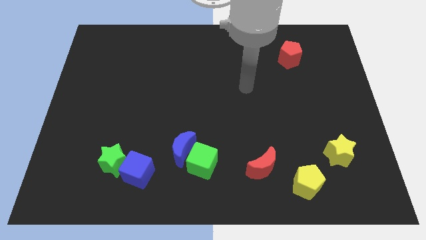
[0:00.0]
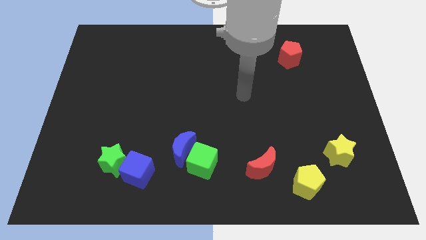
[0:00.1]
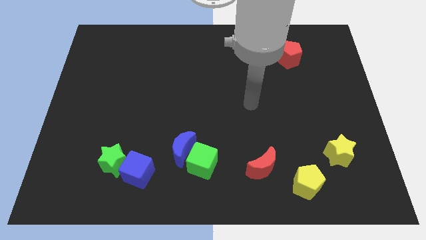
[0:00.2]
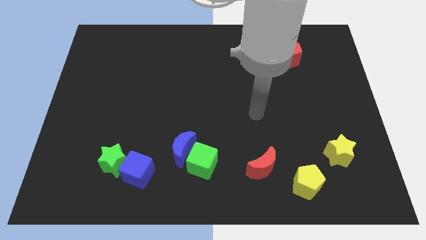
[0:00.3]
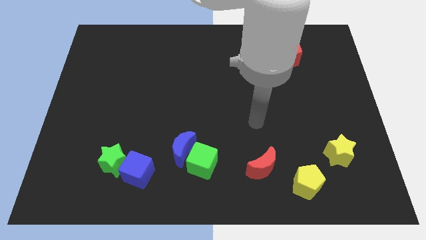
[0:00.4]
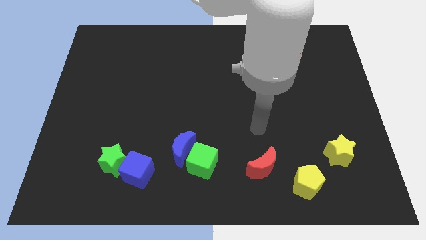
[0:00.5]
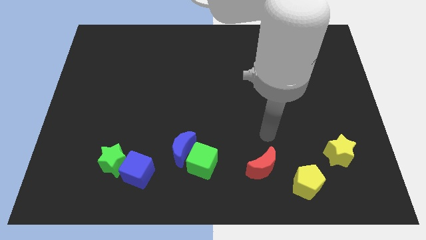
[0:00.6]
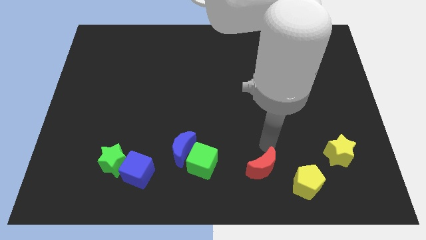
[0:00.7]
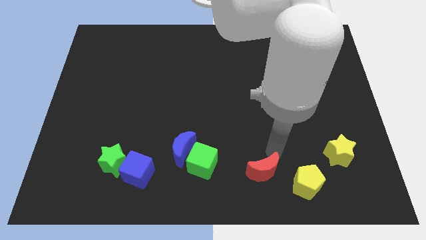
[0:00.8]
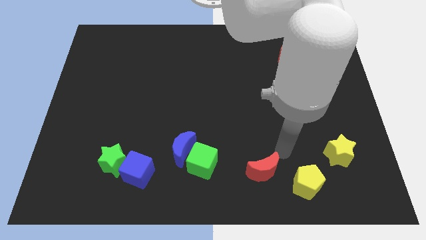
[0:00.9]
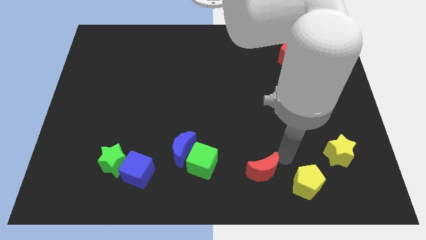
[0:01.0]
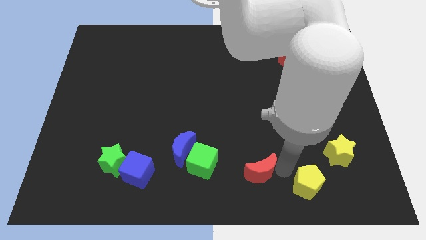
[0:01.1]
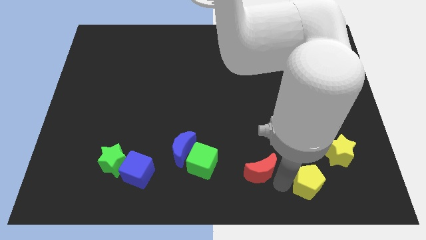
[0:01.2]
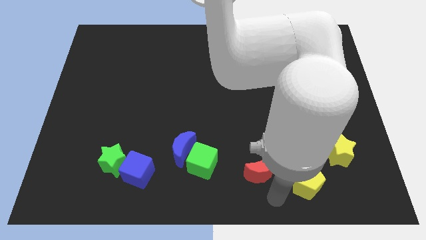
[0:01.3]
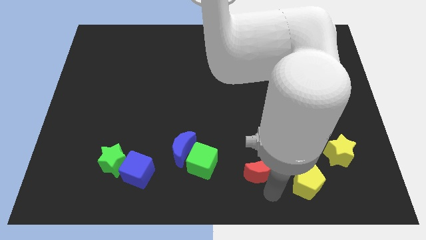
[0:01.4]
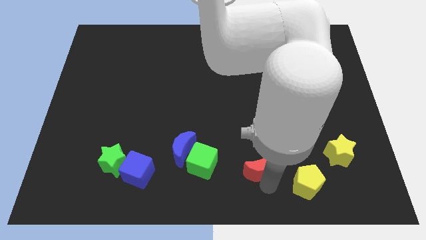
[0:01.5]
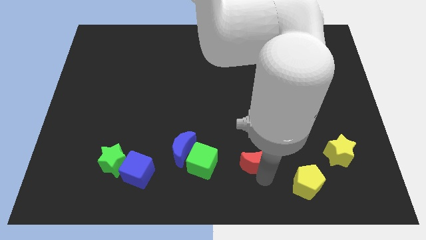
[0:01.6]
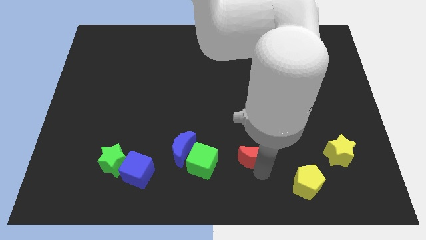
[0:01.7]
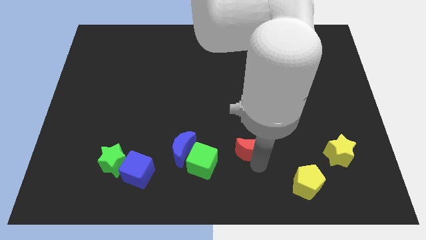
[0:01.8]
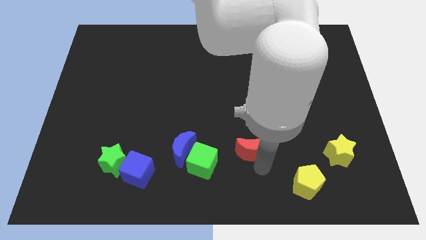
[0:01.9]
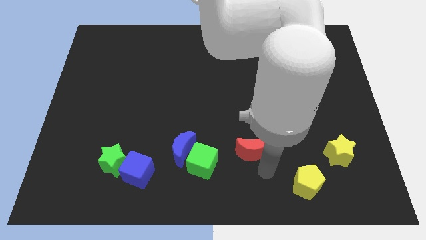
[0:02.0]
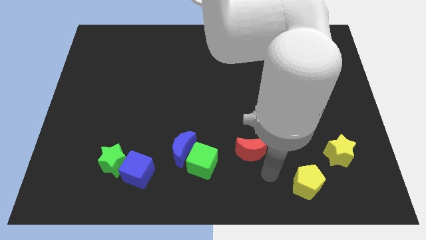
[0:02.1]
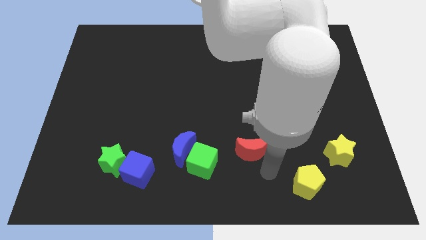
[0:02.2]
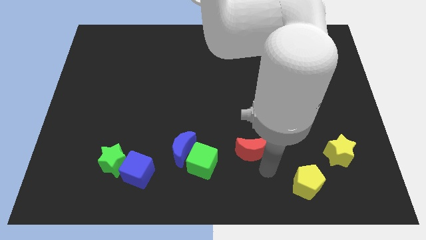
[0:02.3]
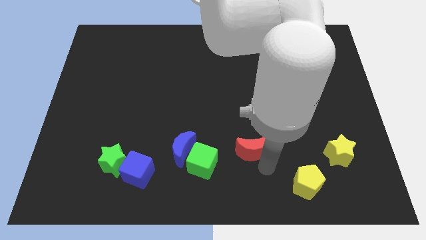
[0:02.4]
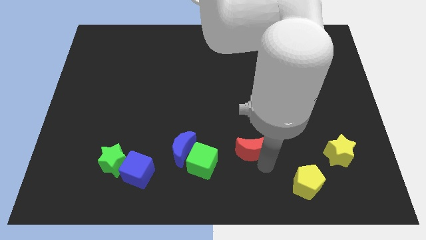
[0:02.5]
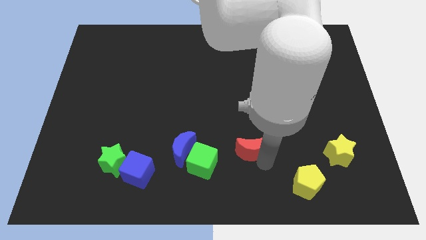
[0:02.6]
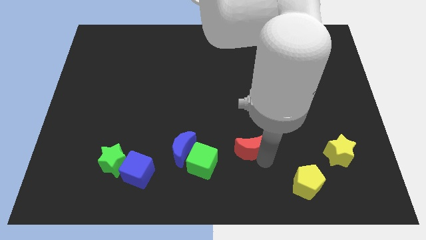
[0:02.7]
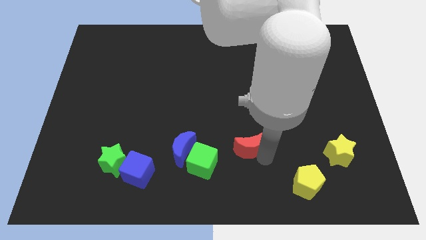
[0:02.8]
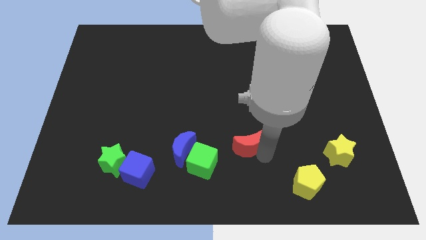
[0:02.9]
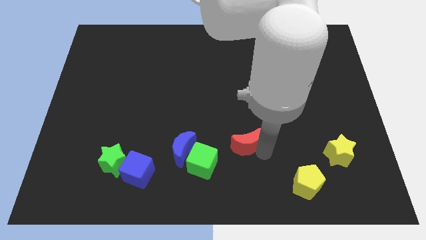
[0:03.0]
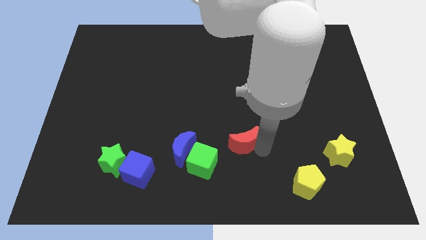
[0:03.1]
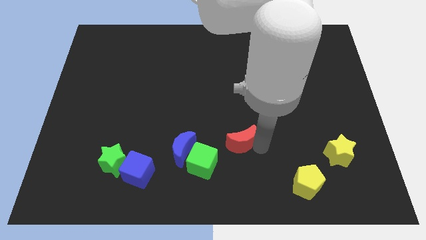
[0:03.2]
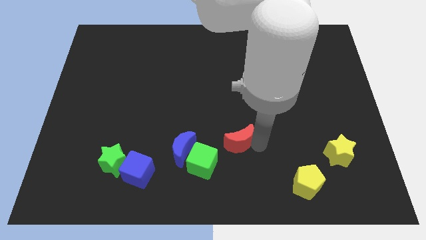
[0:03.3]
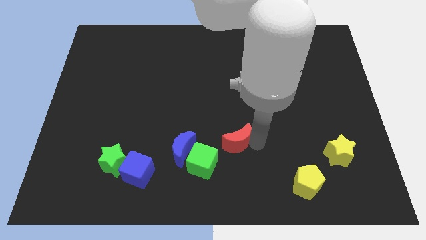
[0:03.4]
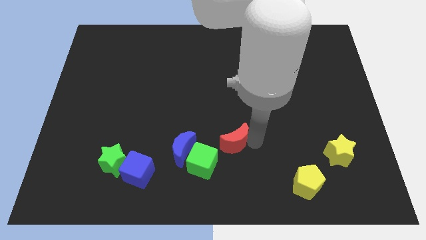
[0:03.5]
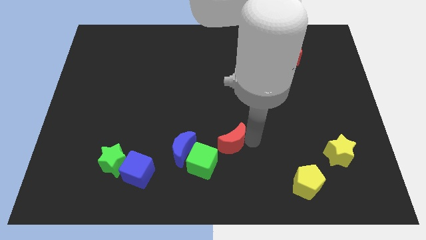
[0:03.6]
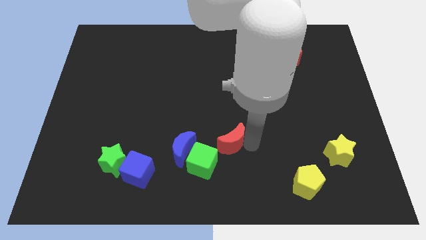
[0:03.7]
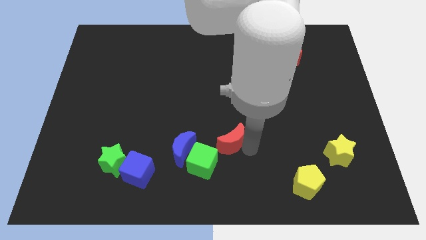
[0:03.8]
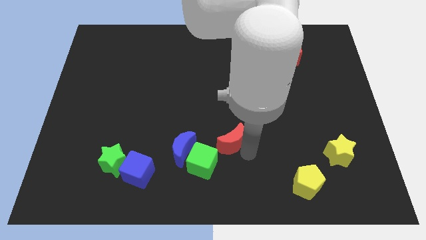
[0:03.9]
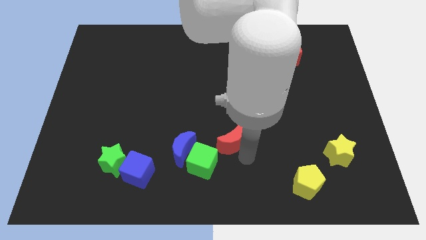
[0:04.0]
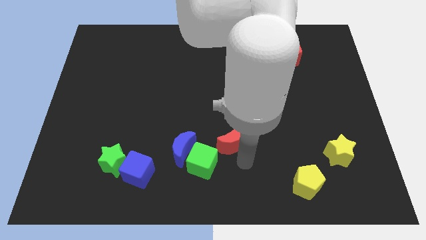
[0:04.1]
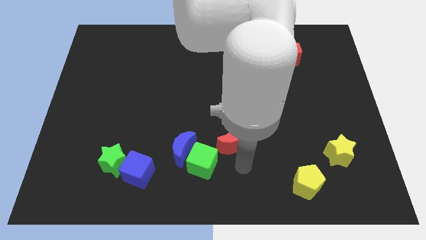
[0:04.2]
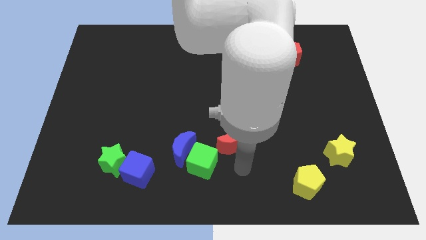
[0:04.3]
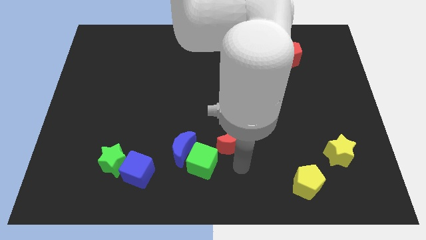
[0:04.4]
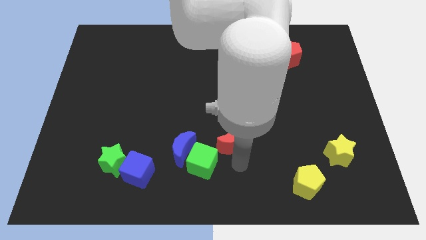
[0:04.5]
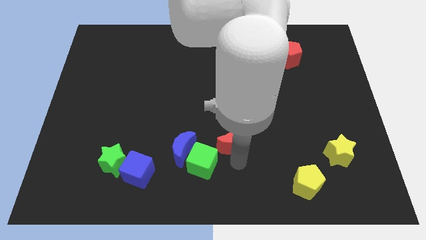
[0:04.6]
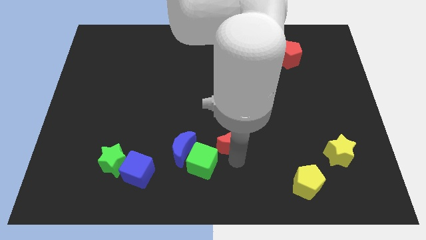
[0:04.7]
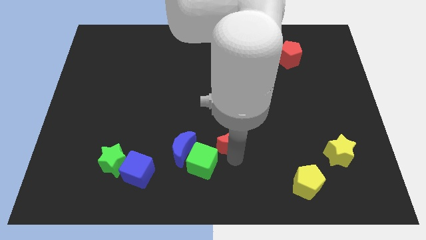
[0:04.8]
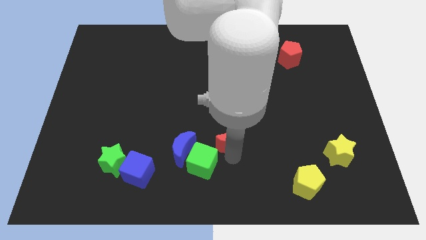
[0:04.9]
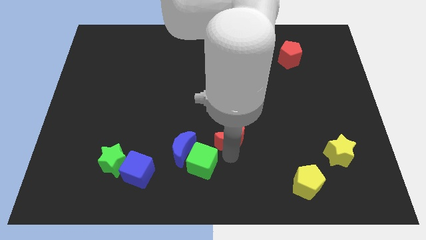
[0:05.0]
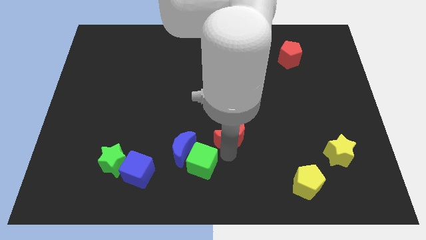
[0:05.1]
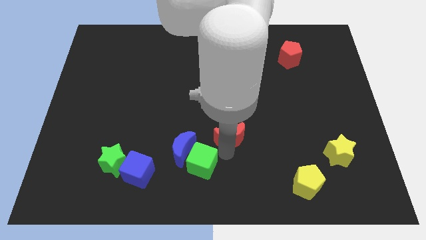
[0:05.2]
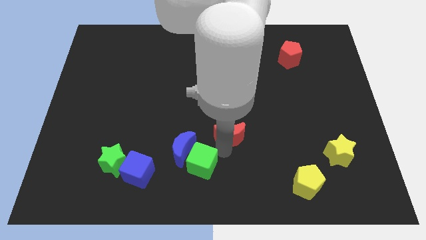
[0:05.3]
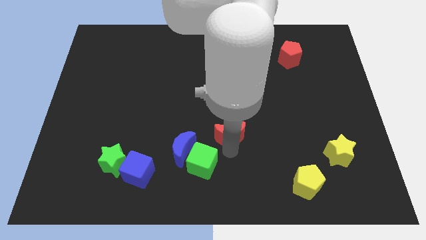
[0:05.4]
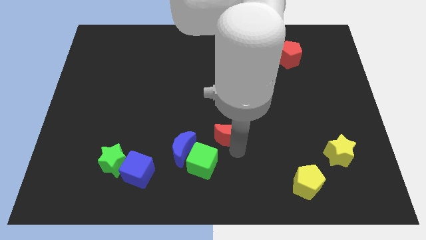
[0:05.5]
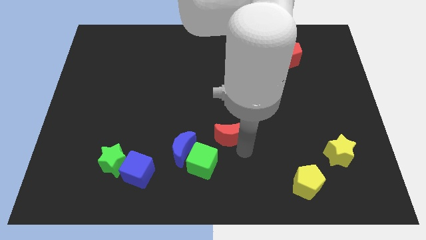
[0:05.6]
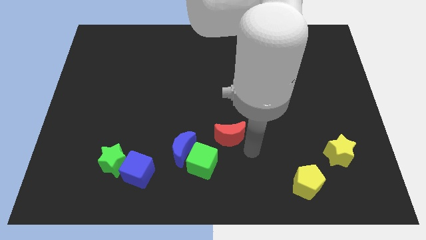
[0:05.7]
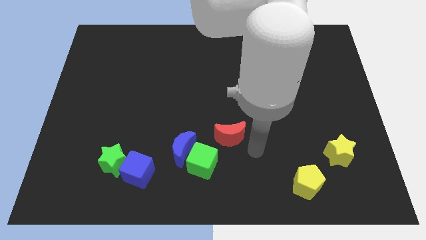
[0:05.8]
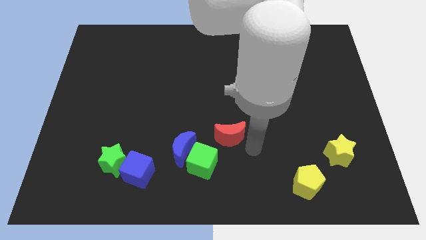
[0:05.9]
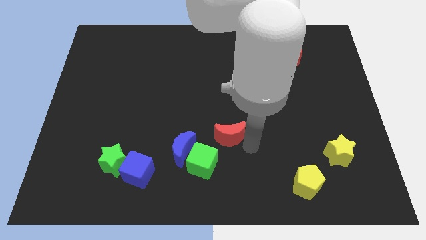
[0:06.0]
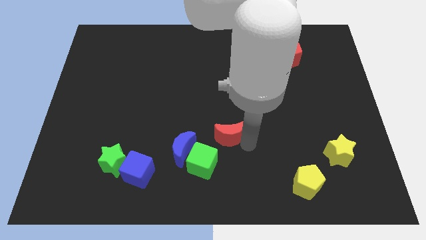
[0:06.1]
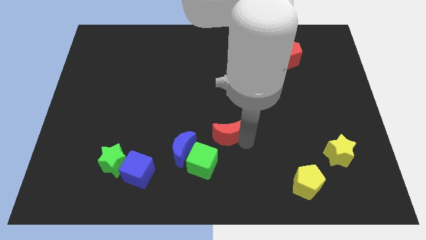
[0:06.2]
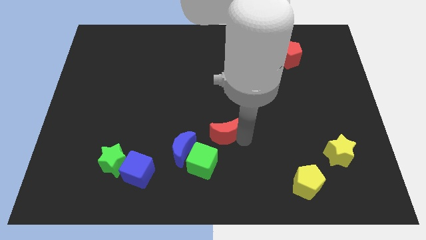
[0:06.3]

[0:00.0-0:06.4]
push the red moon to the top of the green cube

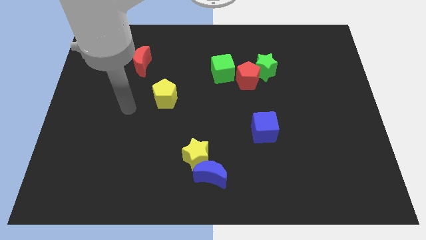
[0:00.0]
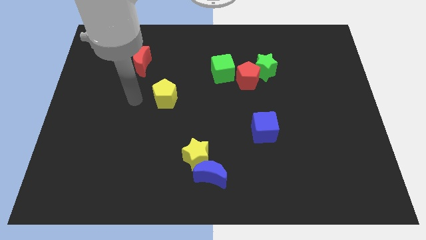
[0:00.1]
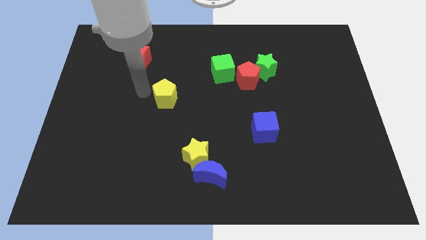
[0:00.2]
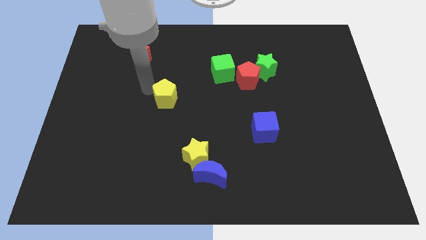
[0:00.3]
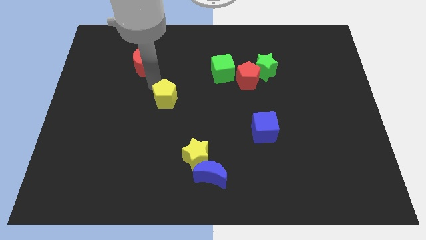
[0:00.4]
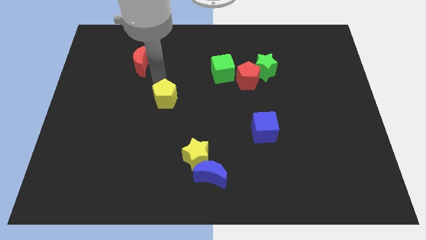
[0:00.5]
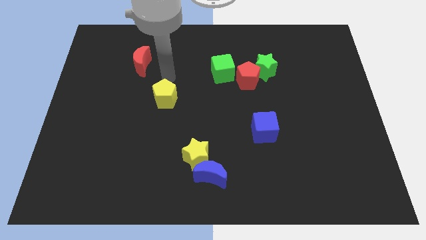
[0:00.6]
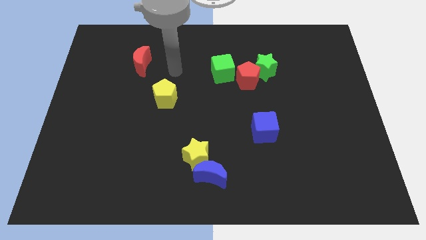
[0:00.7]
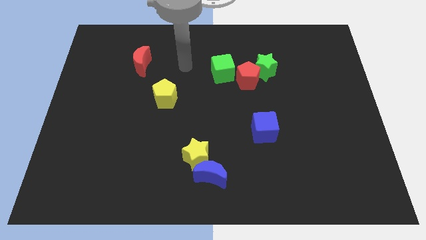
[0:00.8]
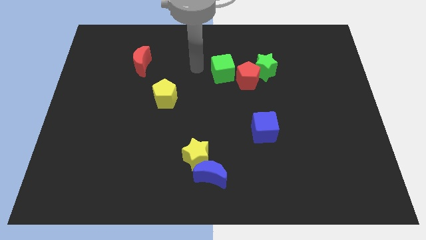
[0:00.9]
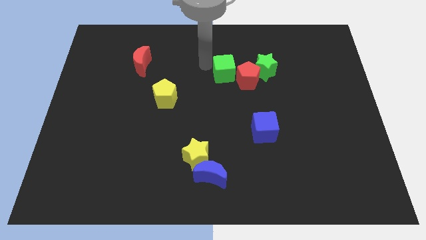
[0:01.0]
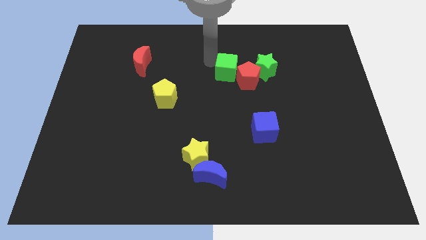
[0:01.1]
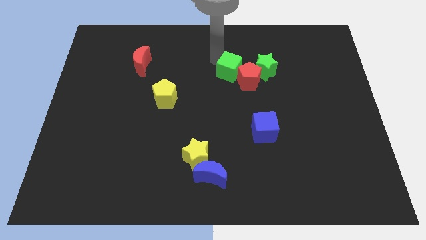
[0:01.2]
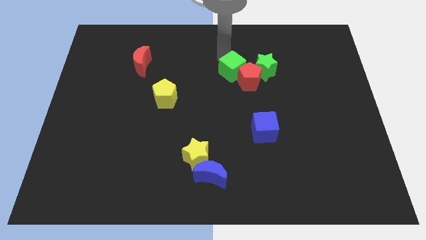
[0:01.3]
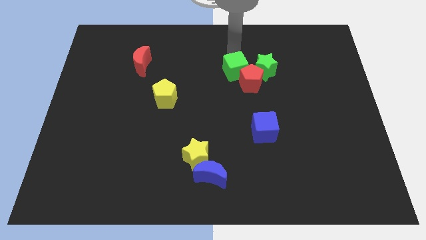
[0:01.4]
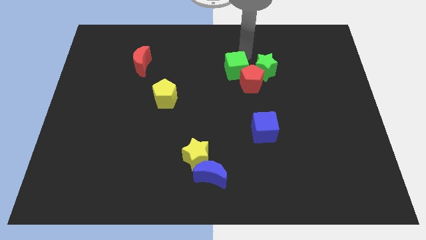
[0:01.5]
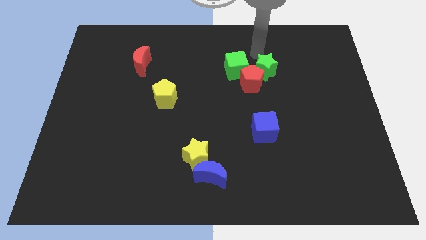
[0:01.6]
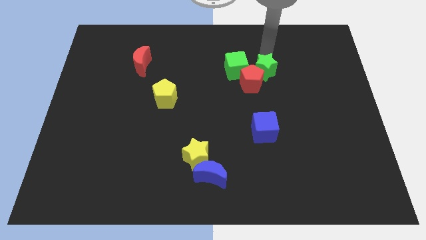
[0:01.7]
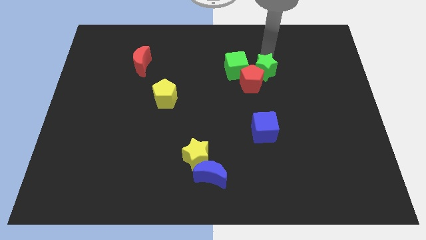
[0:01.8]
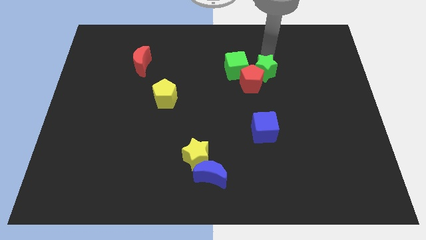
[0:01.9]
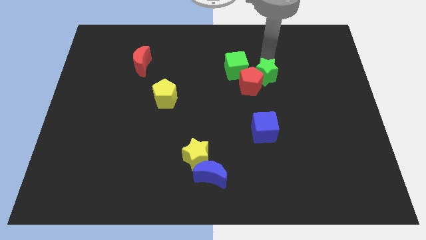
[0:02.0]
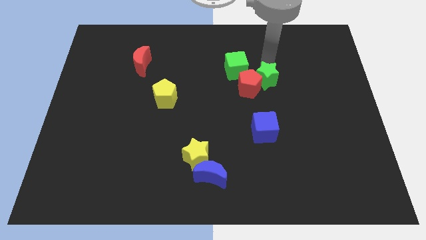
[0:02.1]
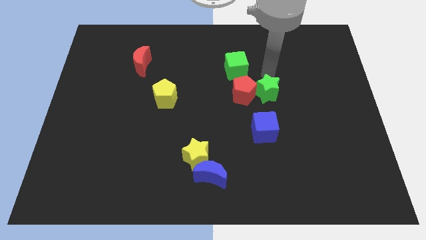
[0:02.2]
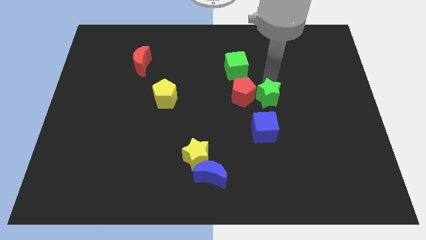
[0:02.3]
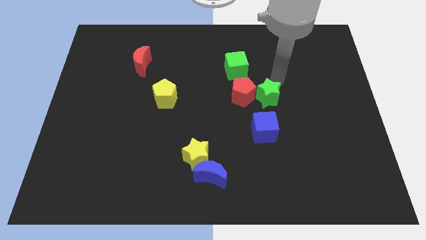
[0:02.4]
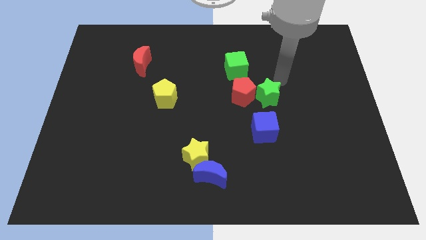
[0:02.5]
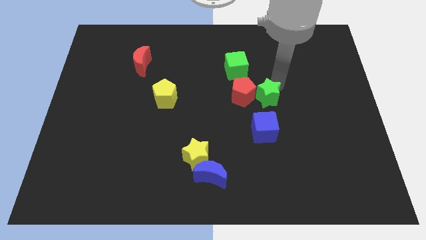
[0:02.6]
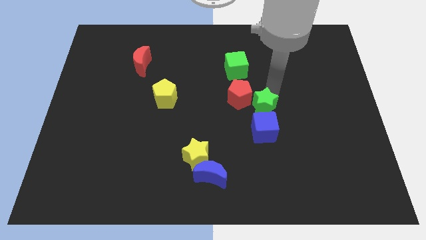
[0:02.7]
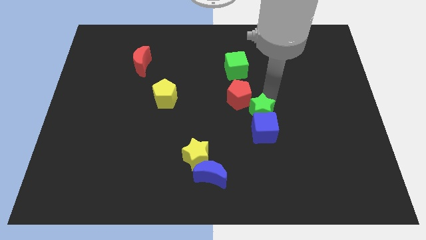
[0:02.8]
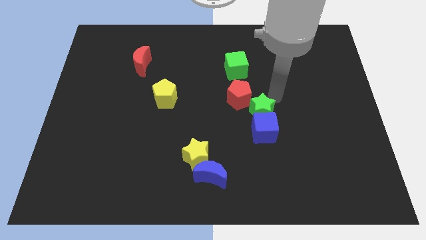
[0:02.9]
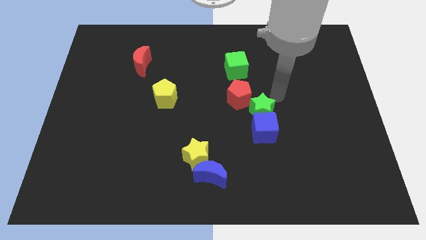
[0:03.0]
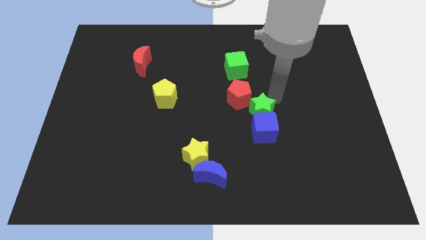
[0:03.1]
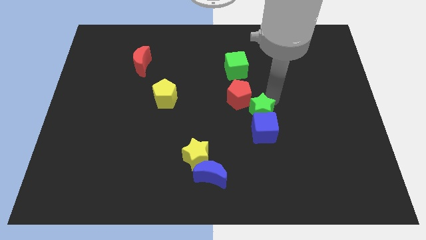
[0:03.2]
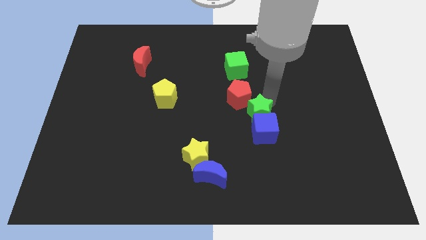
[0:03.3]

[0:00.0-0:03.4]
put the green star to the bottom side of the red pentagon
